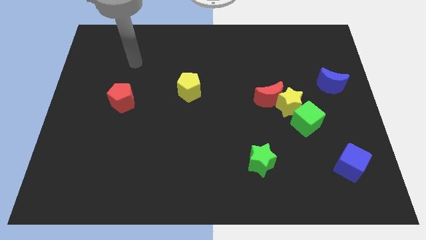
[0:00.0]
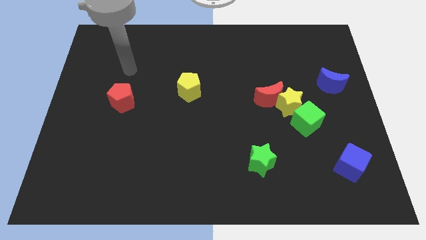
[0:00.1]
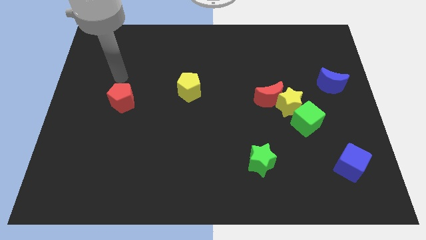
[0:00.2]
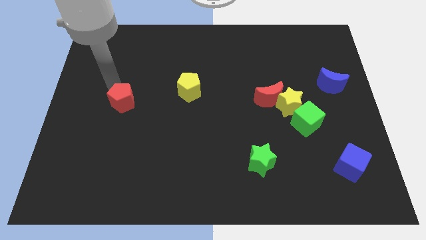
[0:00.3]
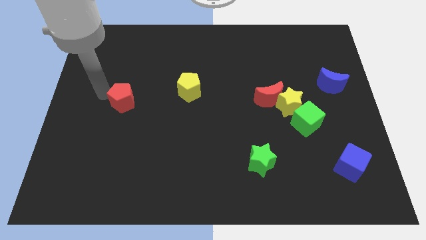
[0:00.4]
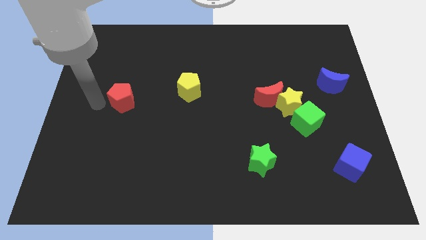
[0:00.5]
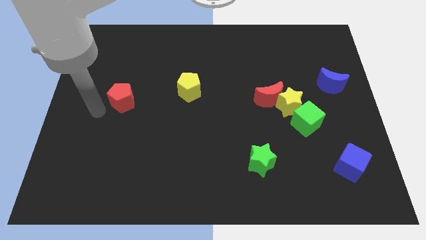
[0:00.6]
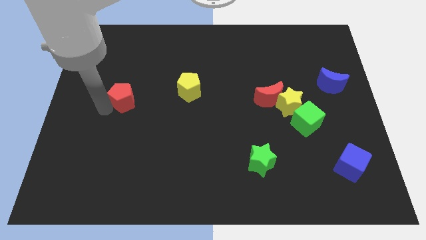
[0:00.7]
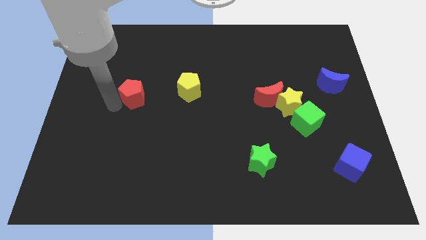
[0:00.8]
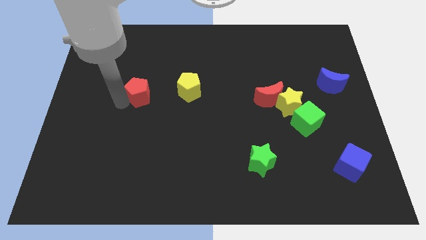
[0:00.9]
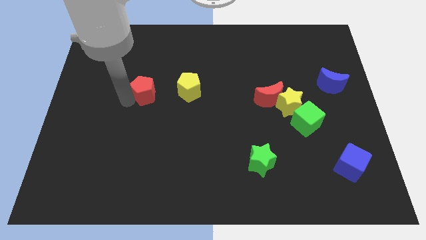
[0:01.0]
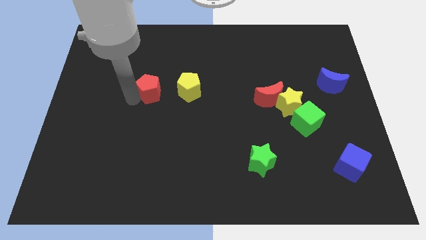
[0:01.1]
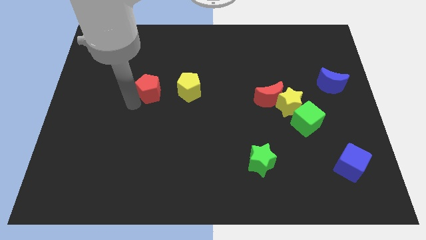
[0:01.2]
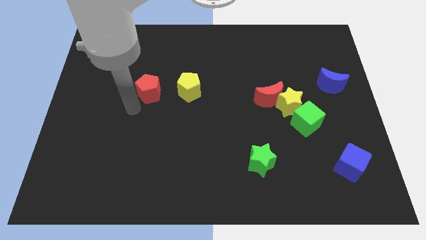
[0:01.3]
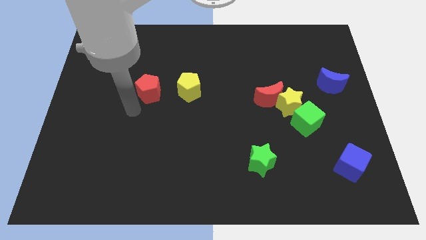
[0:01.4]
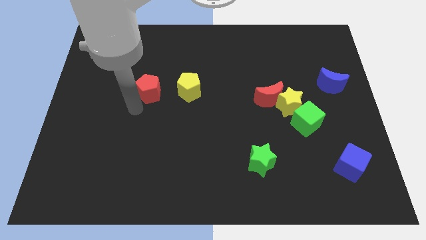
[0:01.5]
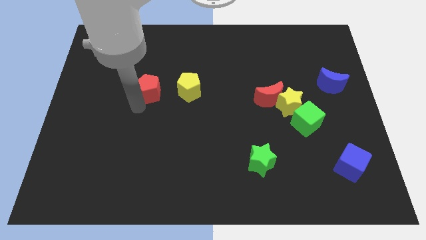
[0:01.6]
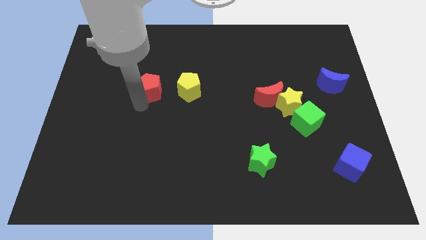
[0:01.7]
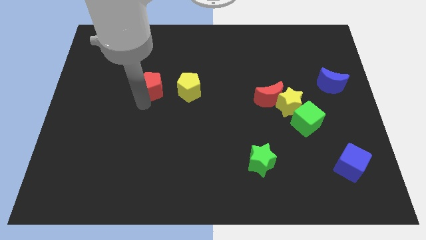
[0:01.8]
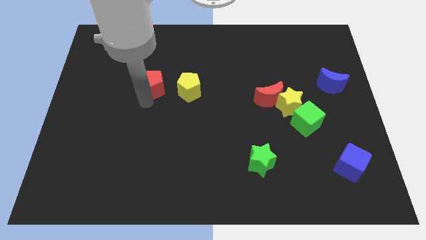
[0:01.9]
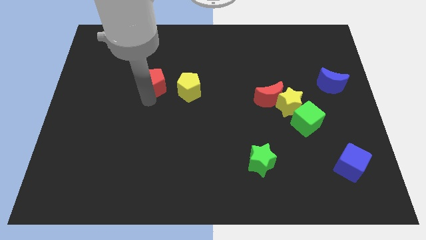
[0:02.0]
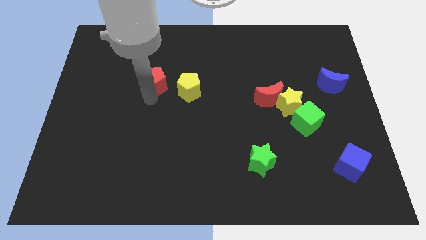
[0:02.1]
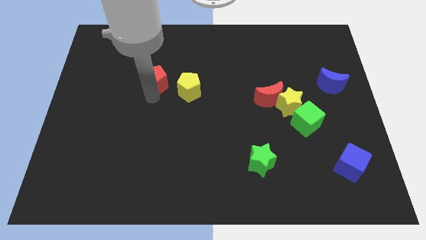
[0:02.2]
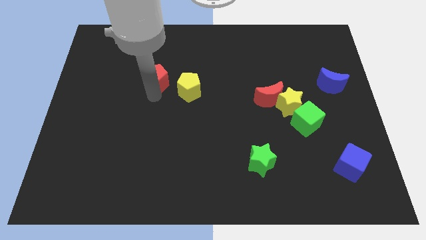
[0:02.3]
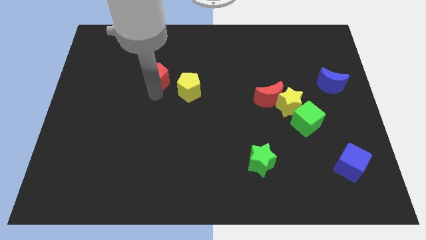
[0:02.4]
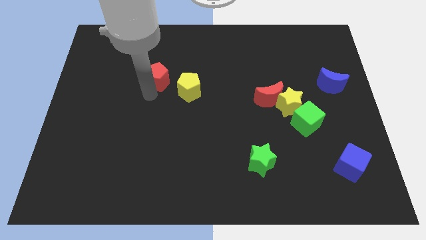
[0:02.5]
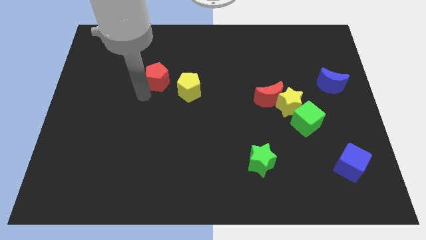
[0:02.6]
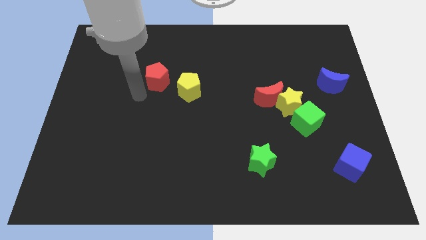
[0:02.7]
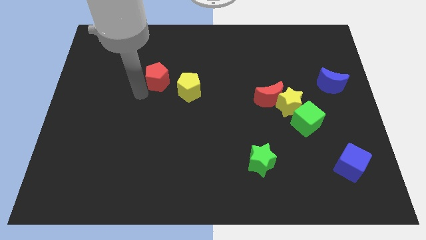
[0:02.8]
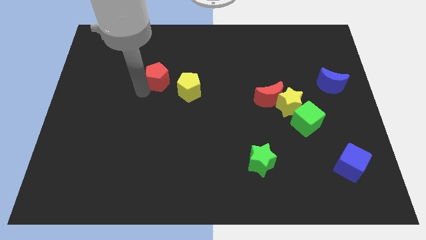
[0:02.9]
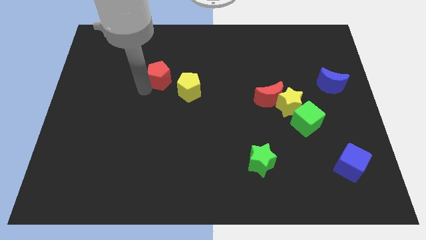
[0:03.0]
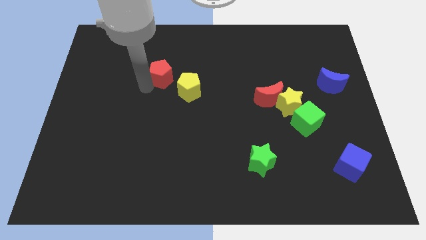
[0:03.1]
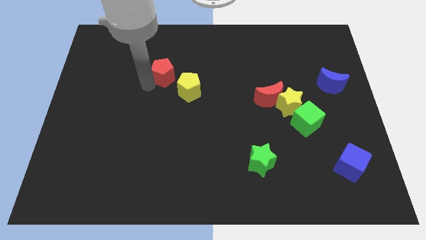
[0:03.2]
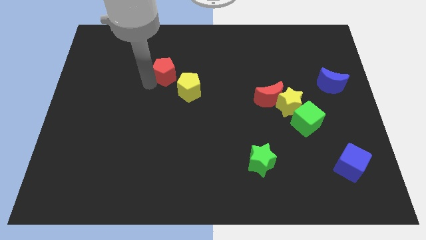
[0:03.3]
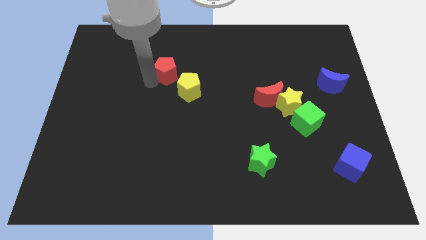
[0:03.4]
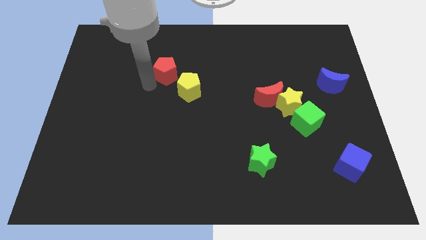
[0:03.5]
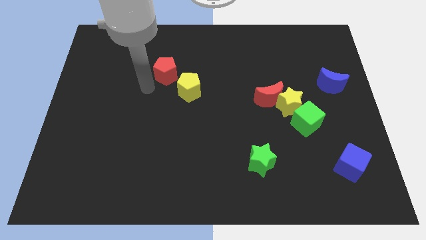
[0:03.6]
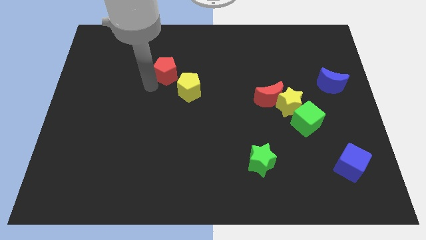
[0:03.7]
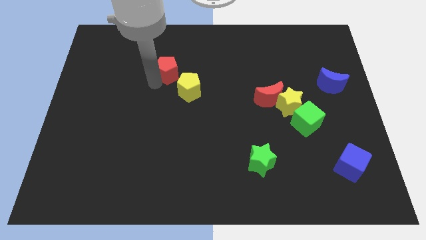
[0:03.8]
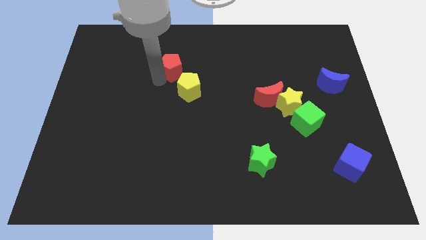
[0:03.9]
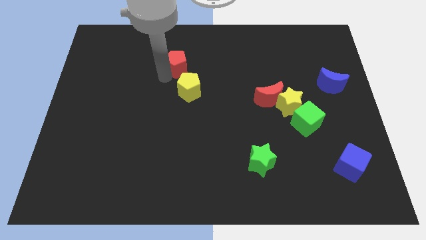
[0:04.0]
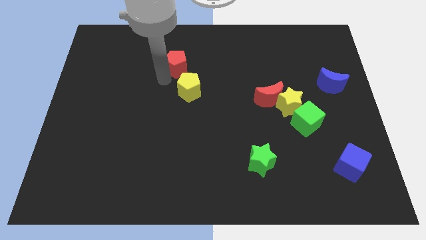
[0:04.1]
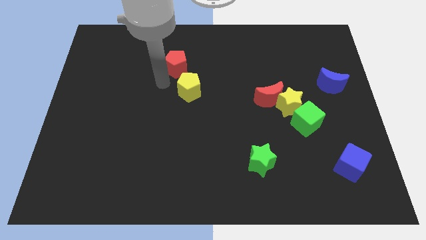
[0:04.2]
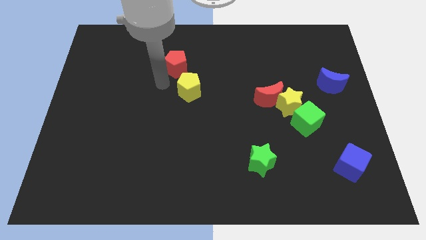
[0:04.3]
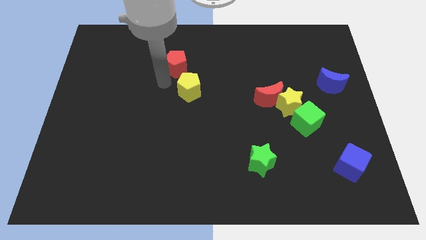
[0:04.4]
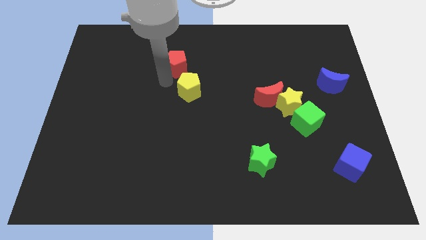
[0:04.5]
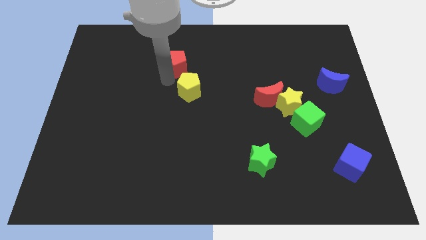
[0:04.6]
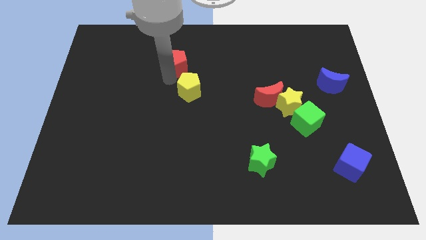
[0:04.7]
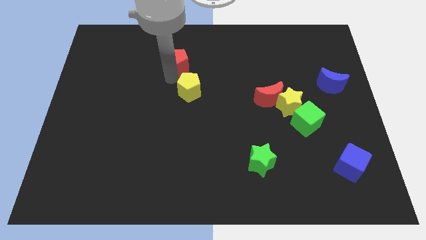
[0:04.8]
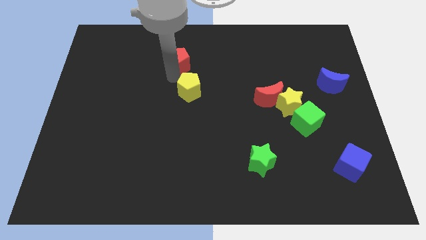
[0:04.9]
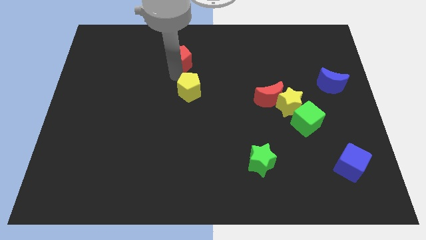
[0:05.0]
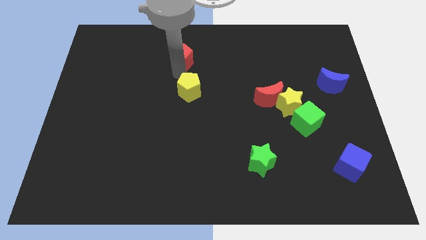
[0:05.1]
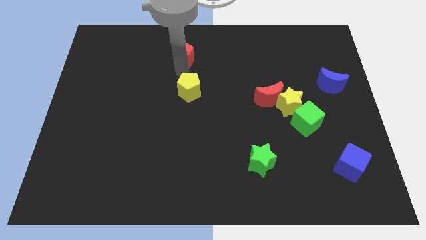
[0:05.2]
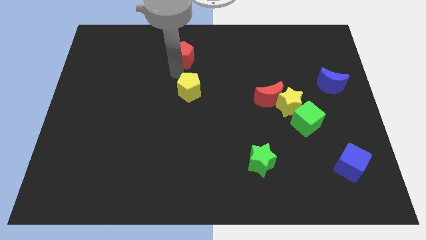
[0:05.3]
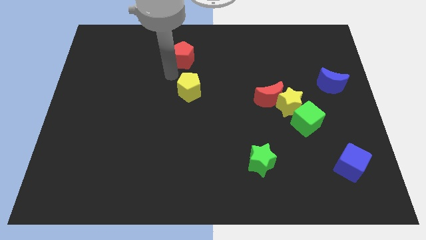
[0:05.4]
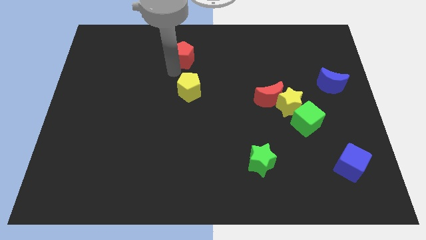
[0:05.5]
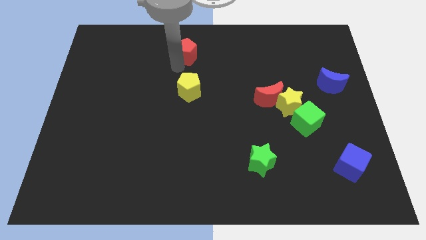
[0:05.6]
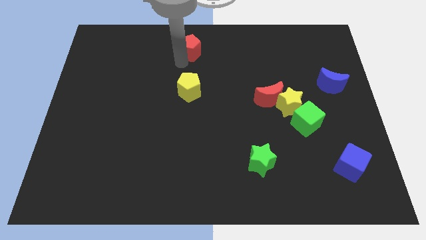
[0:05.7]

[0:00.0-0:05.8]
slide the red pentagon to the top side

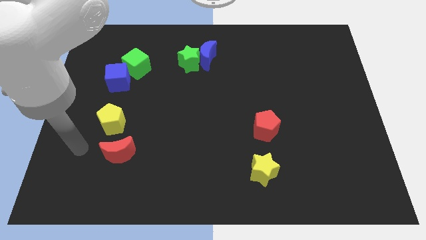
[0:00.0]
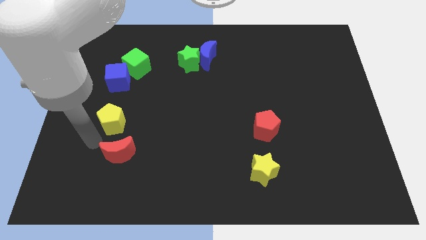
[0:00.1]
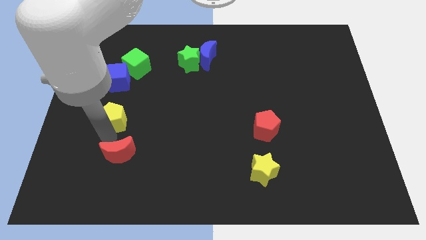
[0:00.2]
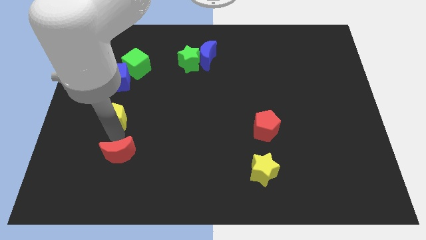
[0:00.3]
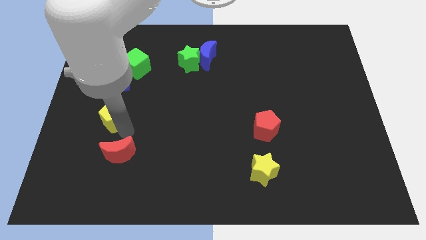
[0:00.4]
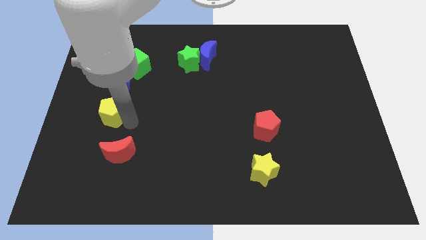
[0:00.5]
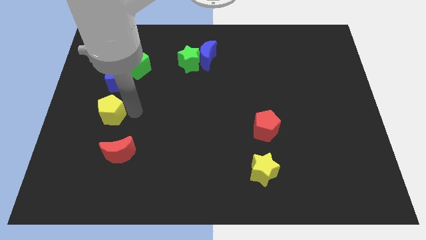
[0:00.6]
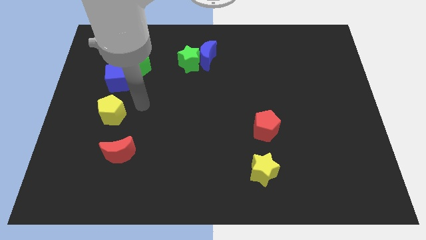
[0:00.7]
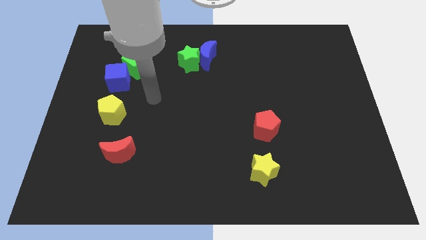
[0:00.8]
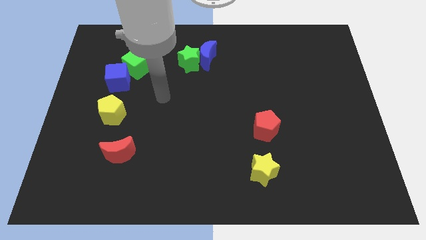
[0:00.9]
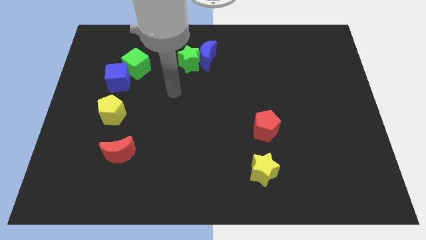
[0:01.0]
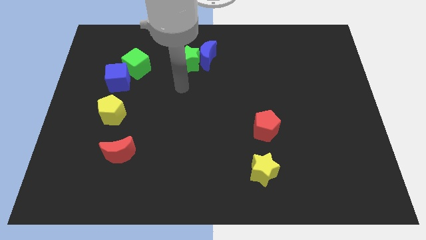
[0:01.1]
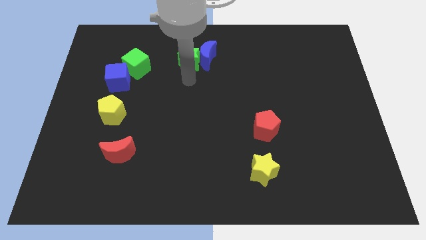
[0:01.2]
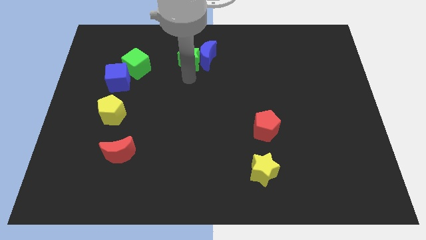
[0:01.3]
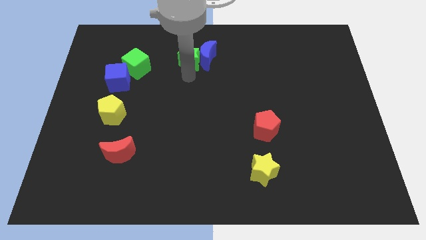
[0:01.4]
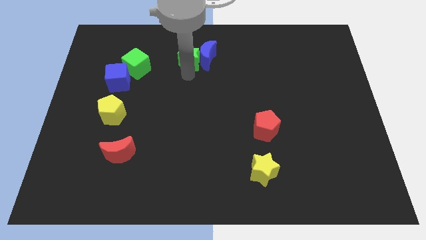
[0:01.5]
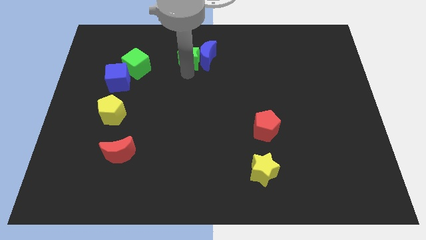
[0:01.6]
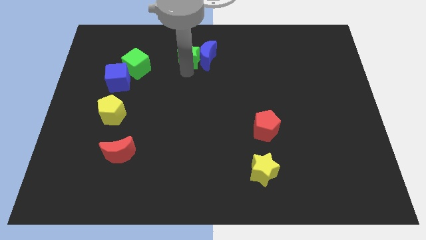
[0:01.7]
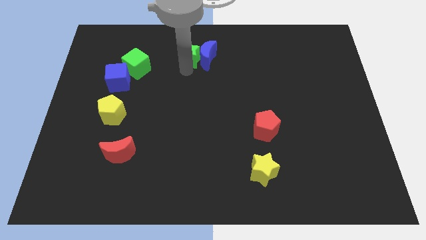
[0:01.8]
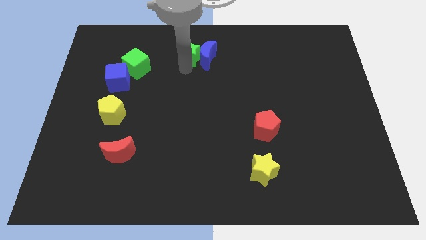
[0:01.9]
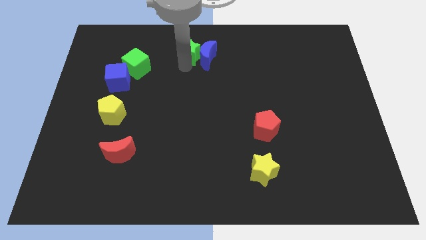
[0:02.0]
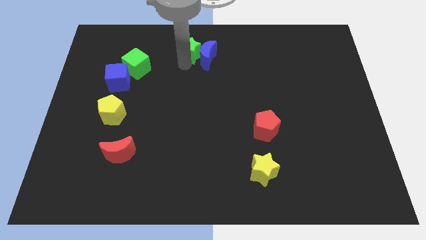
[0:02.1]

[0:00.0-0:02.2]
slide the green star to the top side

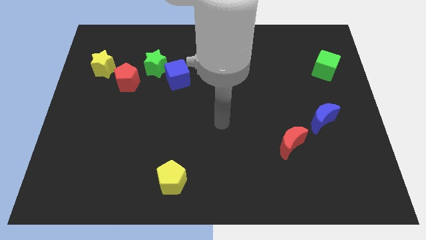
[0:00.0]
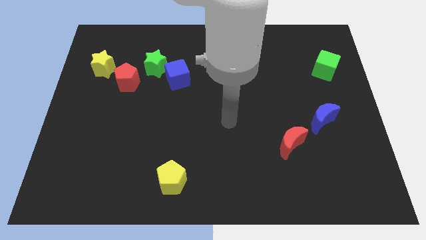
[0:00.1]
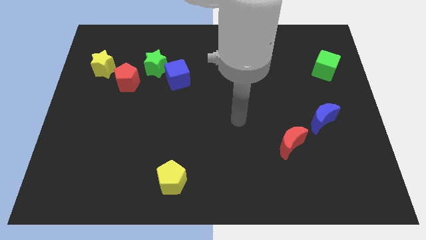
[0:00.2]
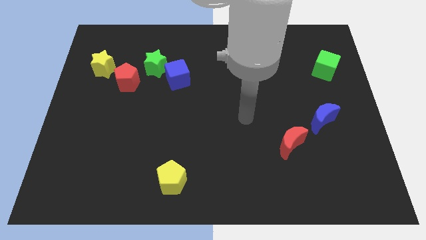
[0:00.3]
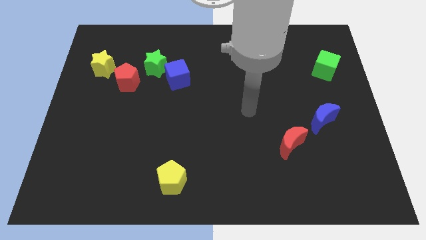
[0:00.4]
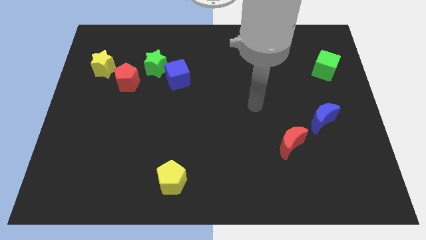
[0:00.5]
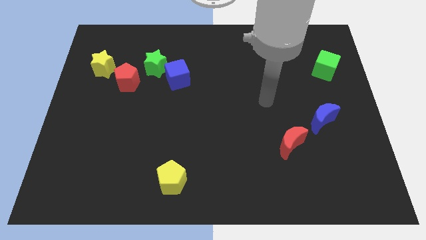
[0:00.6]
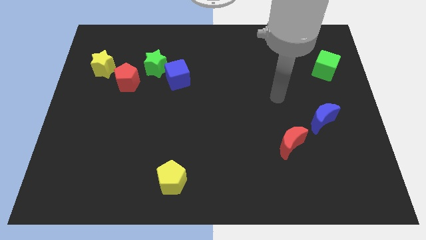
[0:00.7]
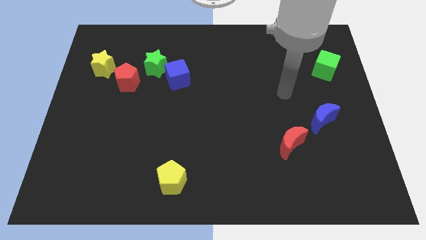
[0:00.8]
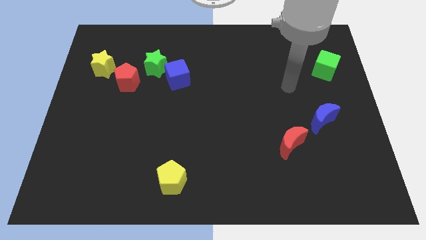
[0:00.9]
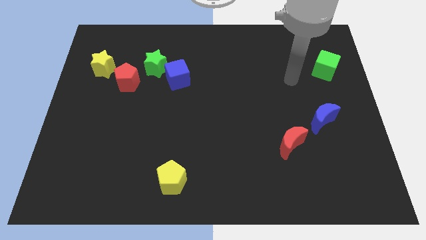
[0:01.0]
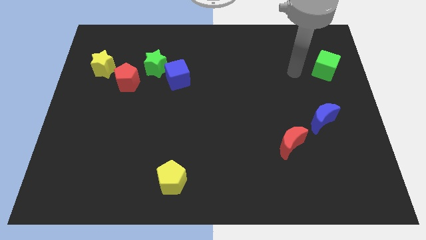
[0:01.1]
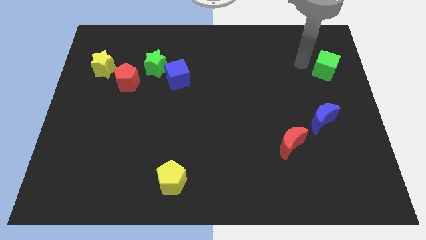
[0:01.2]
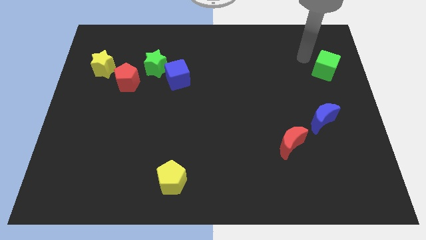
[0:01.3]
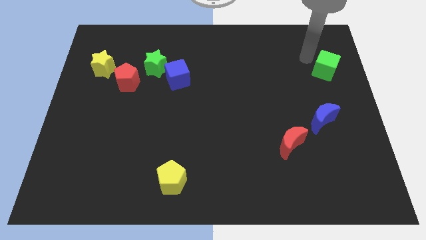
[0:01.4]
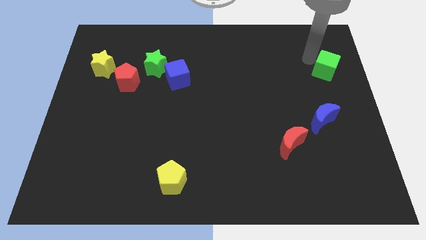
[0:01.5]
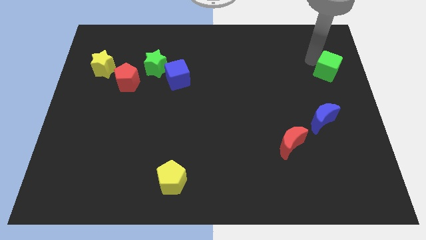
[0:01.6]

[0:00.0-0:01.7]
move the green cube to the center right
